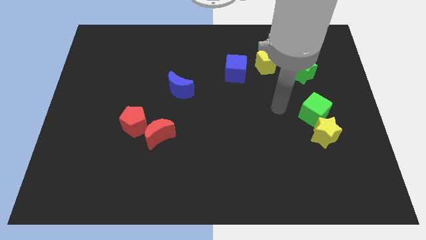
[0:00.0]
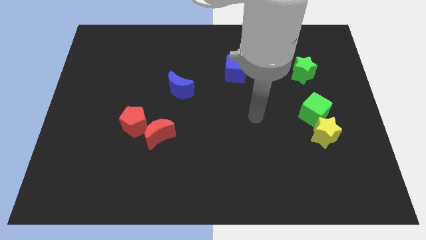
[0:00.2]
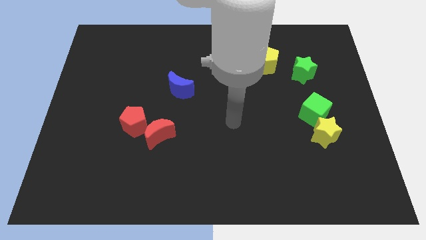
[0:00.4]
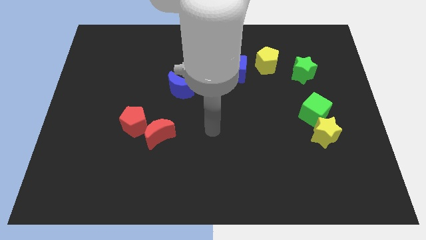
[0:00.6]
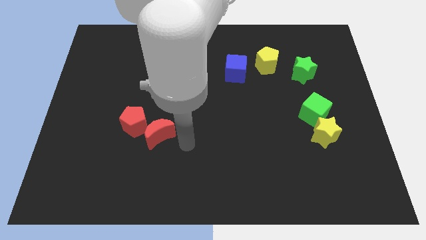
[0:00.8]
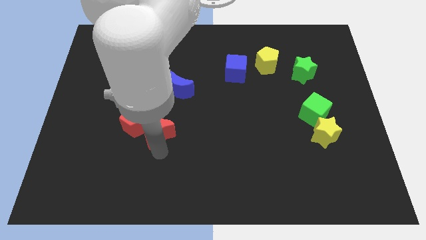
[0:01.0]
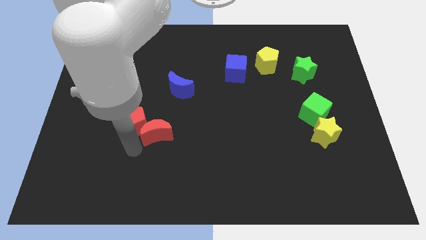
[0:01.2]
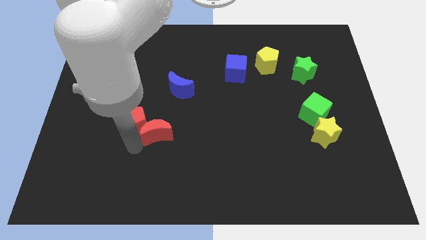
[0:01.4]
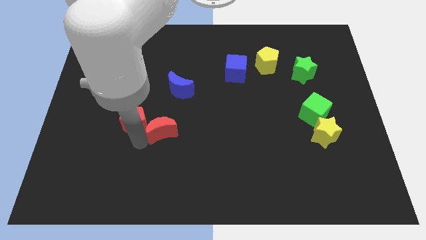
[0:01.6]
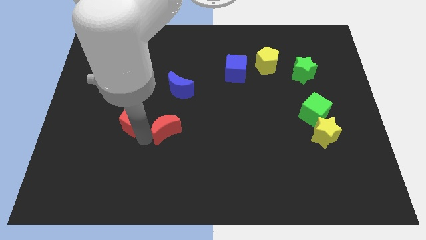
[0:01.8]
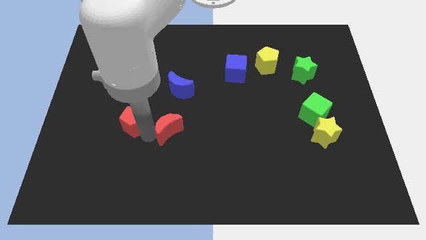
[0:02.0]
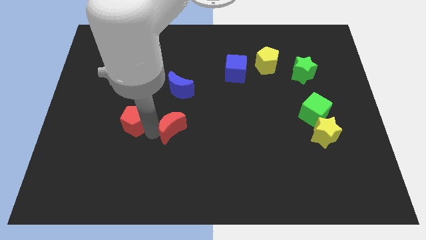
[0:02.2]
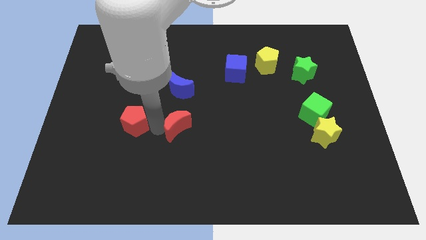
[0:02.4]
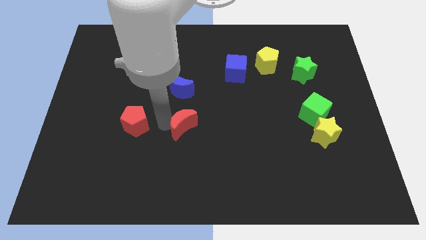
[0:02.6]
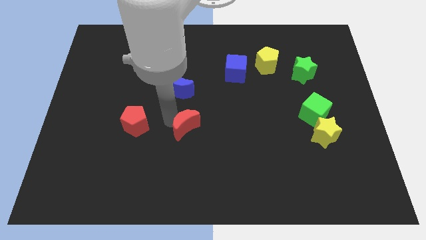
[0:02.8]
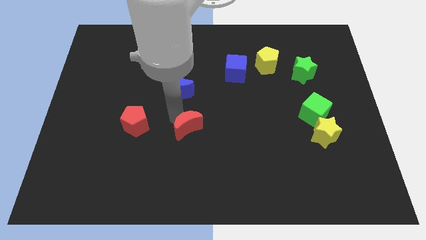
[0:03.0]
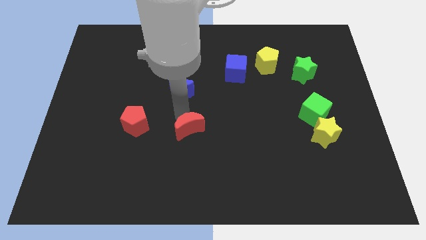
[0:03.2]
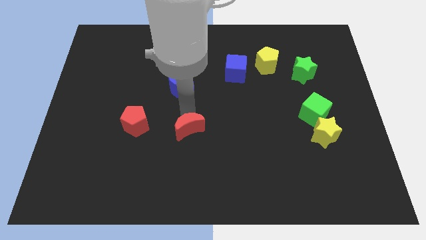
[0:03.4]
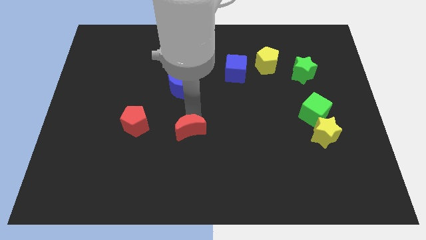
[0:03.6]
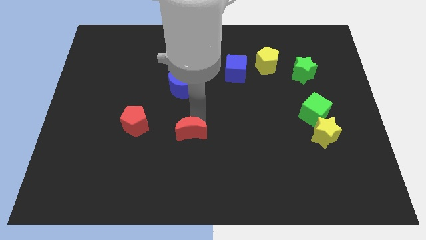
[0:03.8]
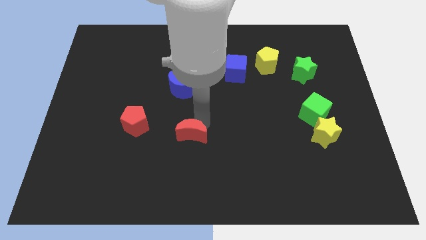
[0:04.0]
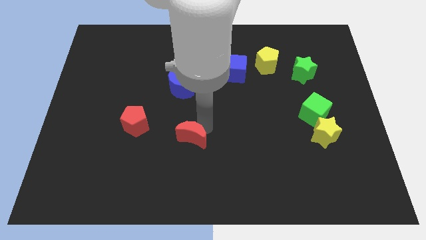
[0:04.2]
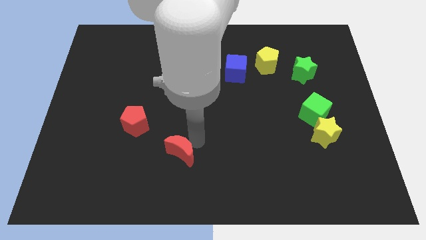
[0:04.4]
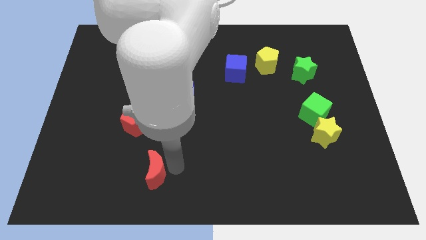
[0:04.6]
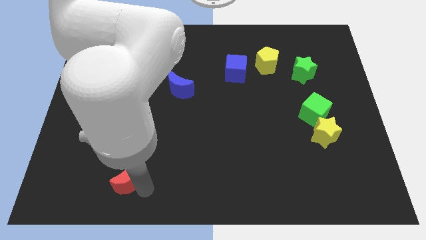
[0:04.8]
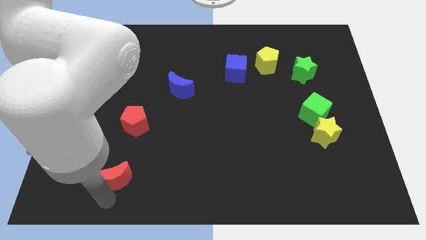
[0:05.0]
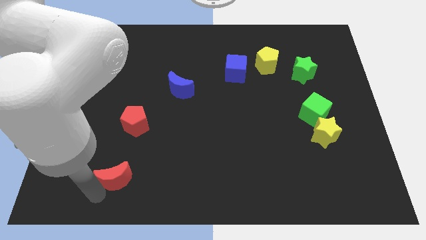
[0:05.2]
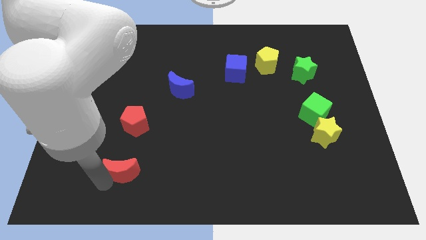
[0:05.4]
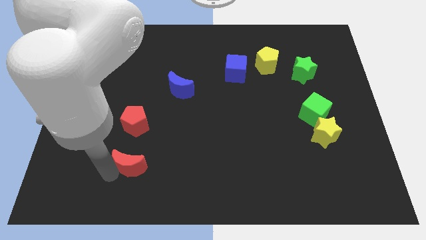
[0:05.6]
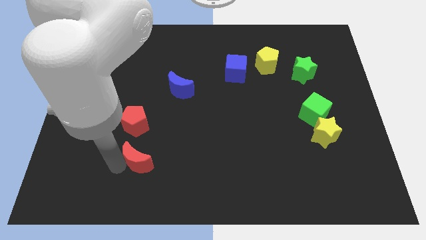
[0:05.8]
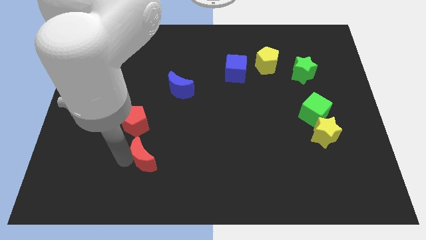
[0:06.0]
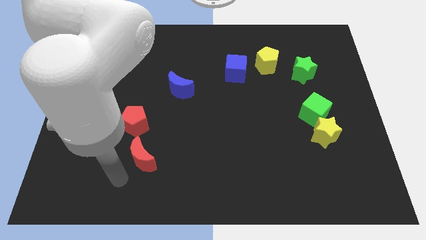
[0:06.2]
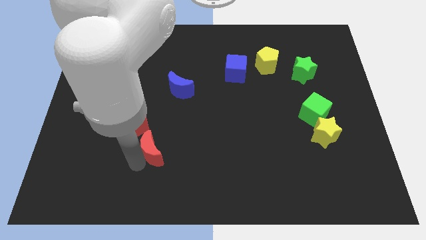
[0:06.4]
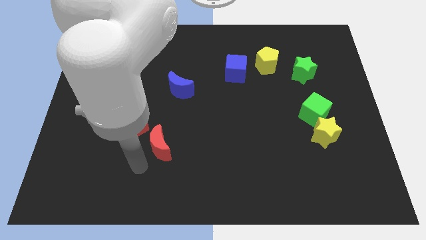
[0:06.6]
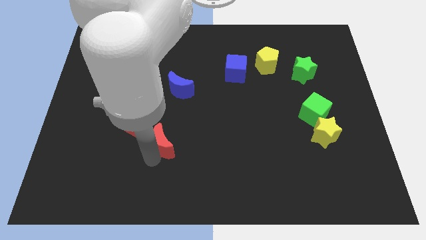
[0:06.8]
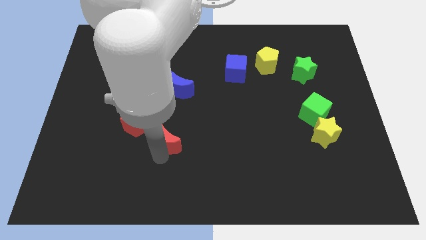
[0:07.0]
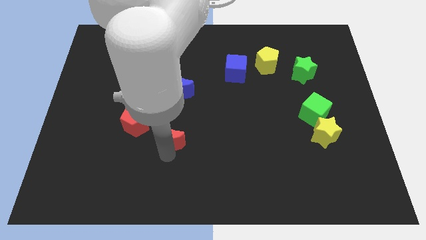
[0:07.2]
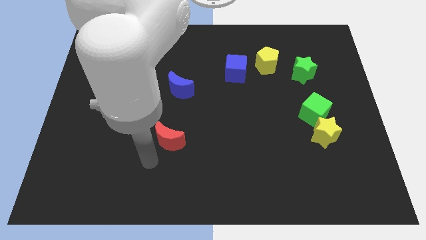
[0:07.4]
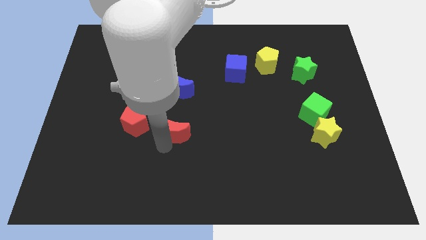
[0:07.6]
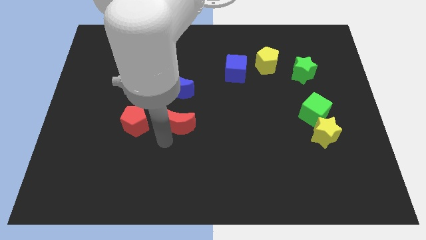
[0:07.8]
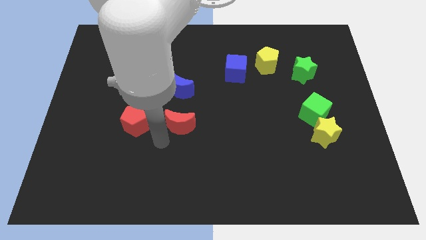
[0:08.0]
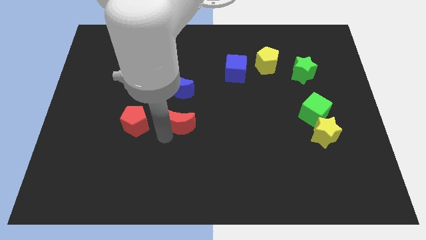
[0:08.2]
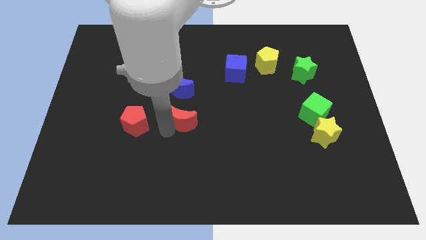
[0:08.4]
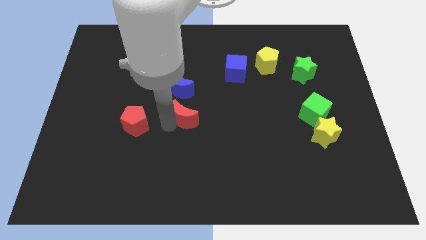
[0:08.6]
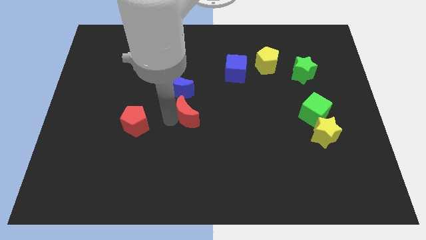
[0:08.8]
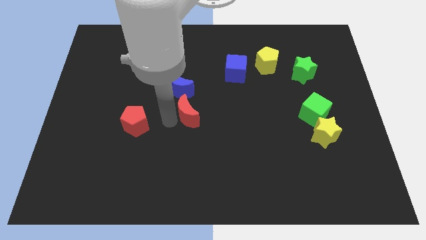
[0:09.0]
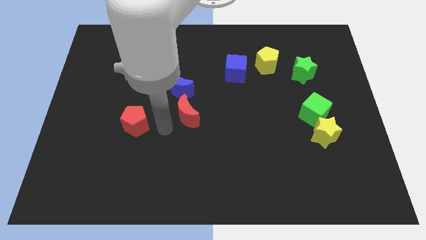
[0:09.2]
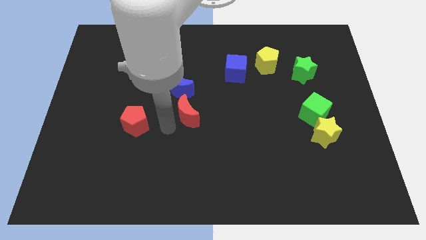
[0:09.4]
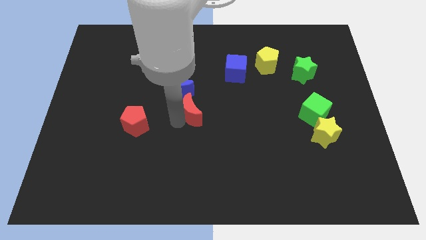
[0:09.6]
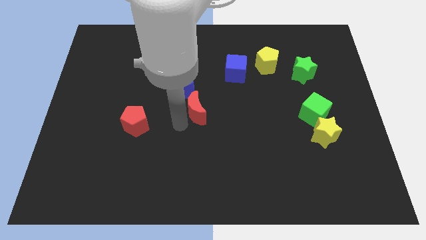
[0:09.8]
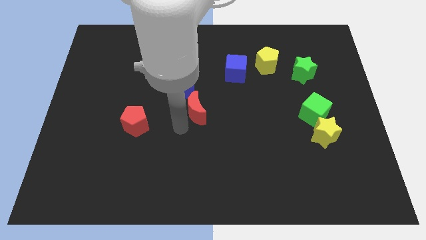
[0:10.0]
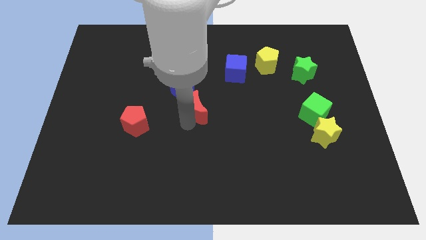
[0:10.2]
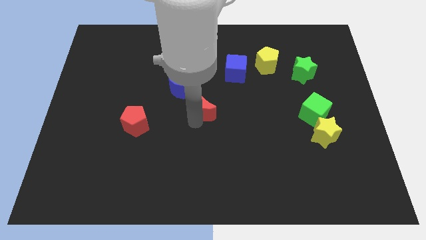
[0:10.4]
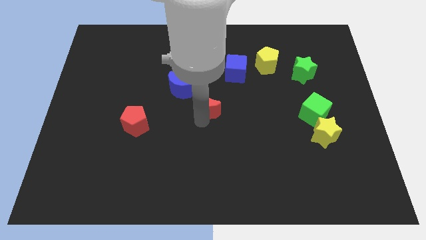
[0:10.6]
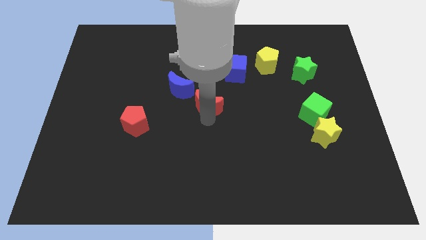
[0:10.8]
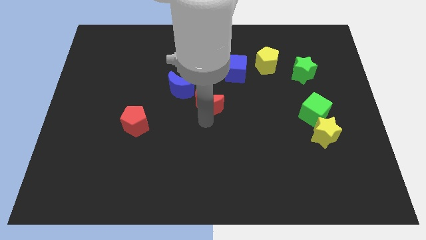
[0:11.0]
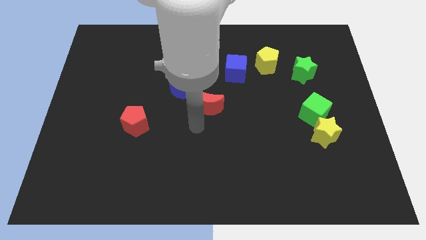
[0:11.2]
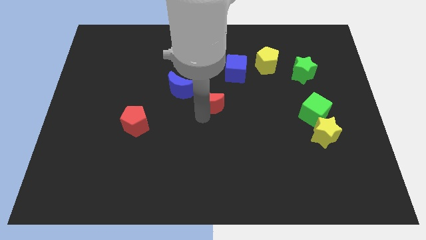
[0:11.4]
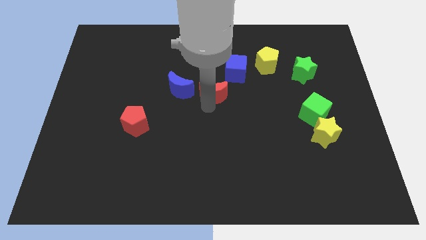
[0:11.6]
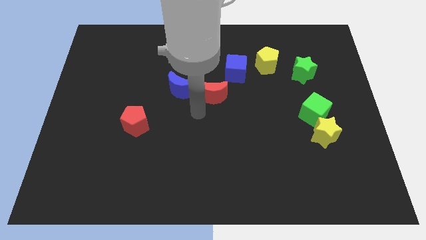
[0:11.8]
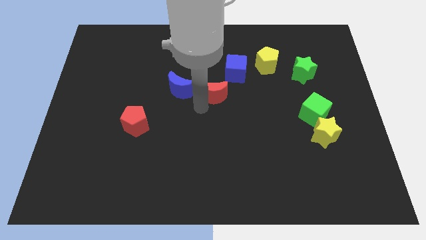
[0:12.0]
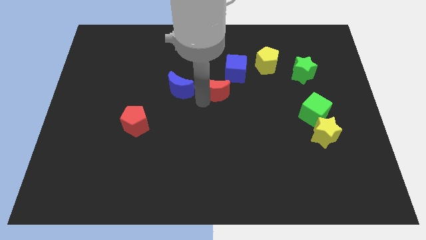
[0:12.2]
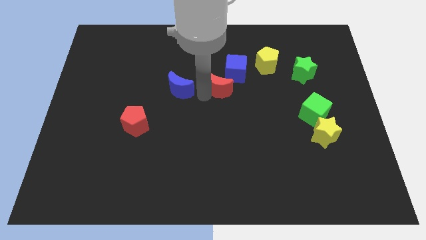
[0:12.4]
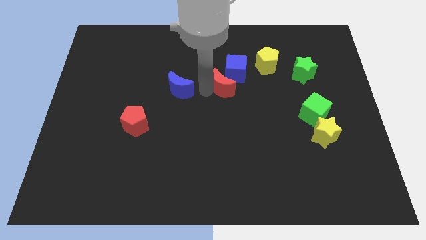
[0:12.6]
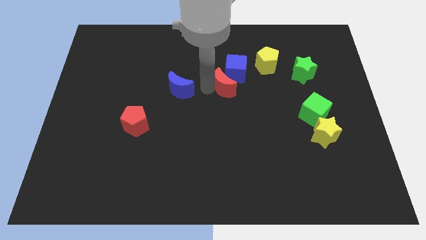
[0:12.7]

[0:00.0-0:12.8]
move the red moon towards the blue cube
